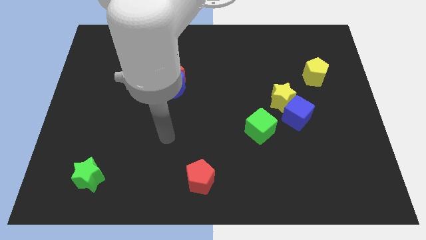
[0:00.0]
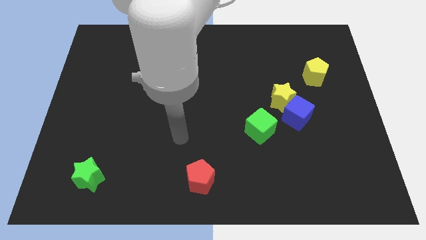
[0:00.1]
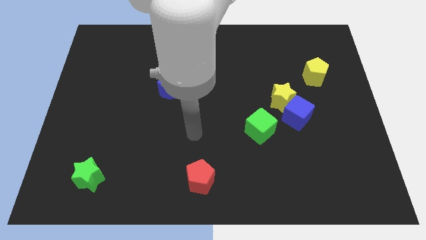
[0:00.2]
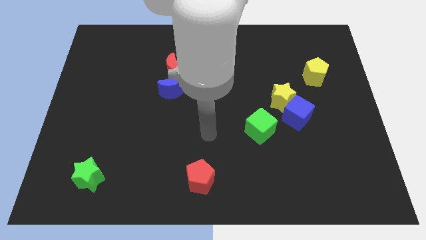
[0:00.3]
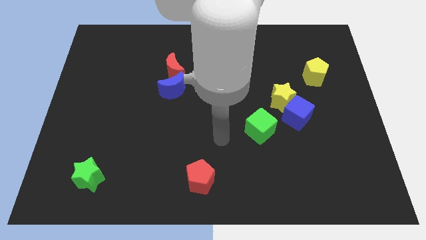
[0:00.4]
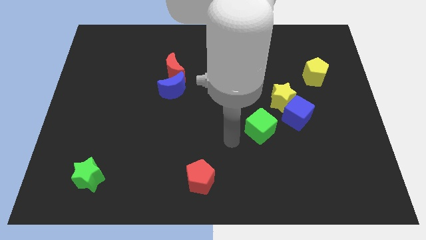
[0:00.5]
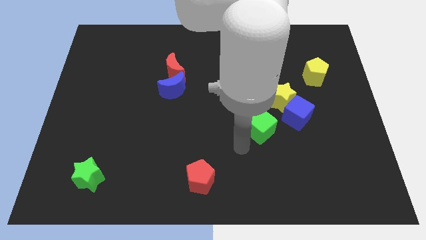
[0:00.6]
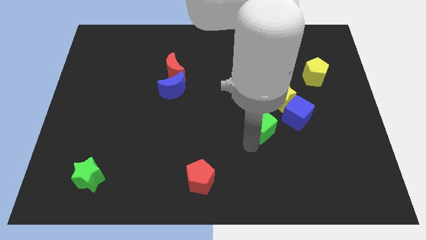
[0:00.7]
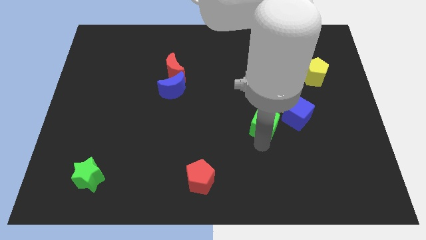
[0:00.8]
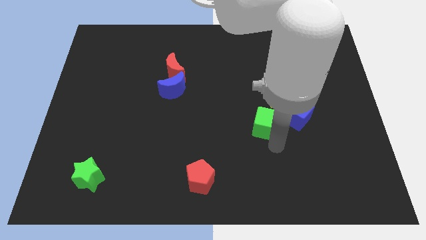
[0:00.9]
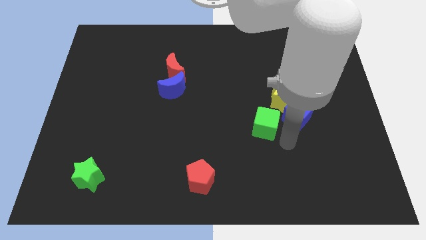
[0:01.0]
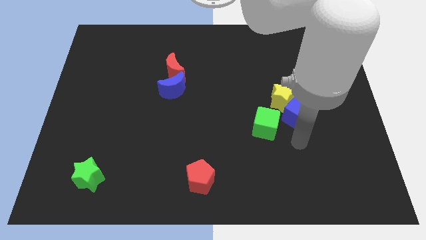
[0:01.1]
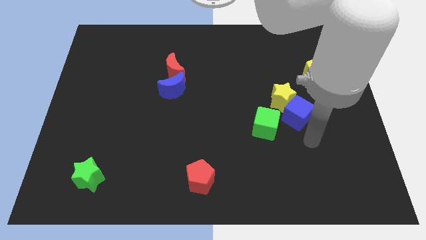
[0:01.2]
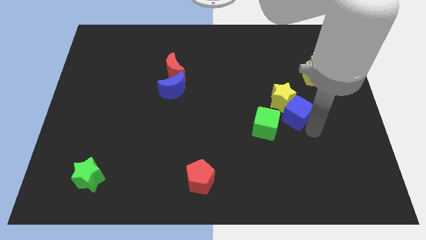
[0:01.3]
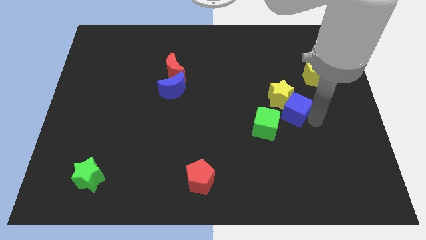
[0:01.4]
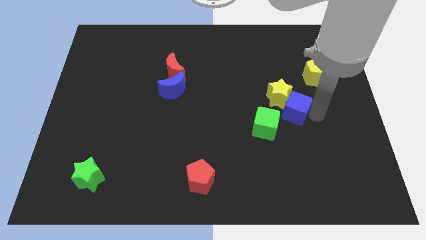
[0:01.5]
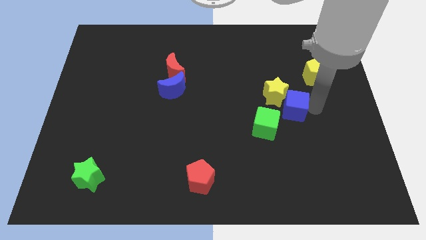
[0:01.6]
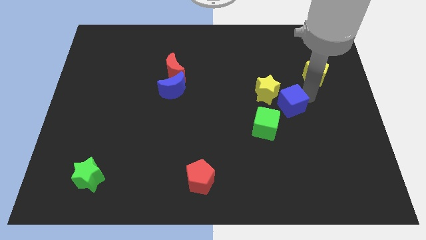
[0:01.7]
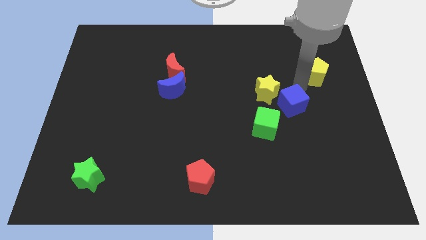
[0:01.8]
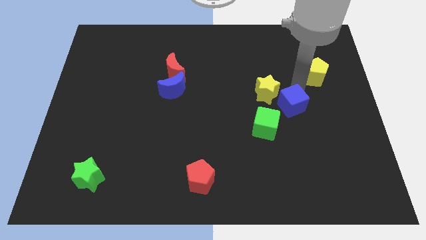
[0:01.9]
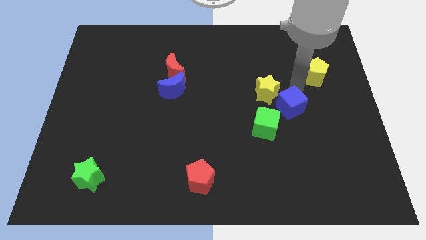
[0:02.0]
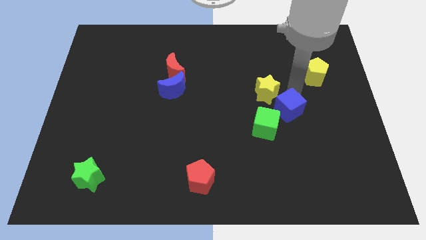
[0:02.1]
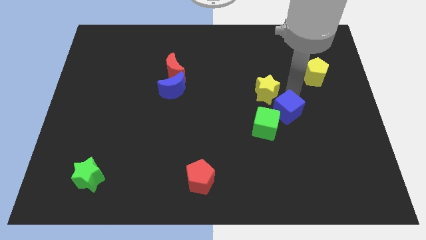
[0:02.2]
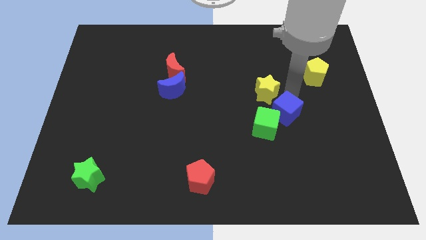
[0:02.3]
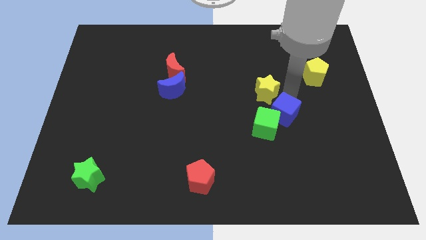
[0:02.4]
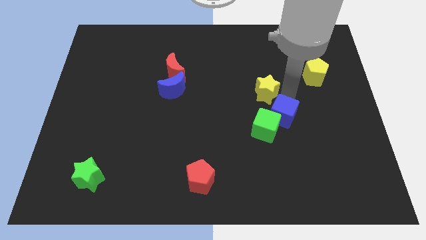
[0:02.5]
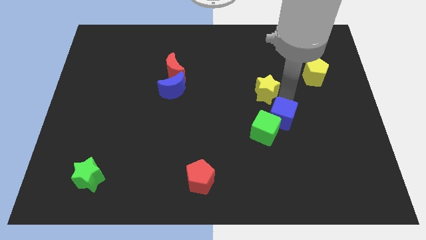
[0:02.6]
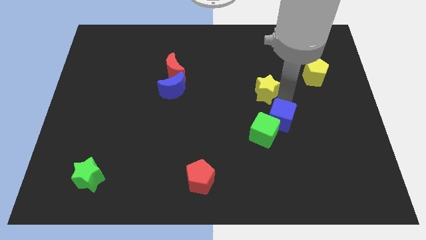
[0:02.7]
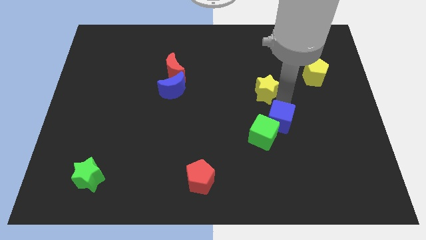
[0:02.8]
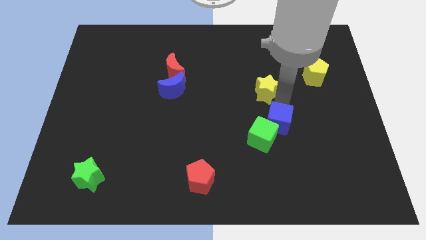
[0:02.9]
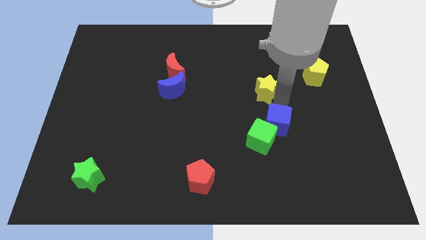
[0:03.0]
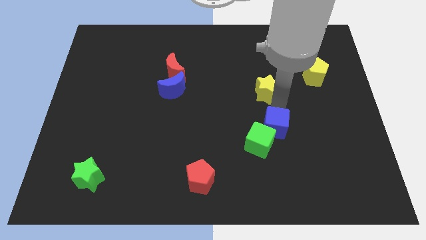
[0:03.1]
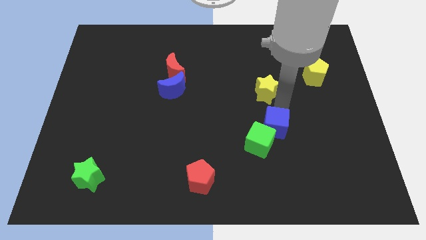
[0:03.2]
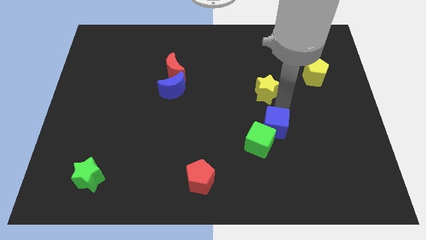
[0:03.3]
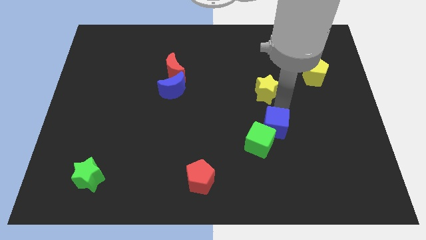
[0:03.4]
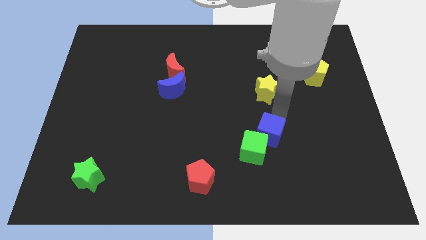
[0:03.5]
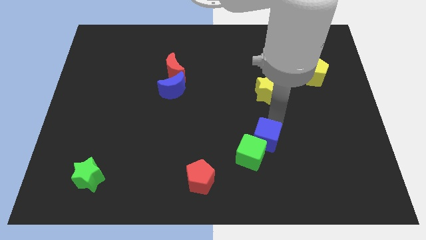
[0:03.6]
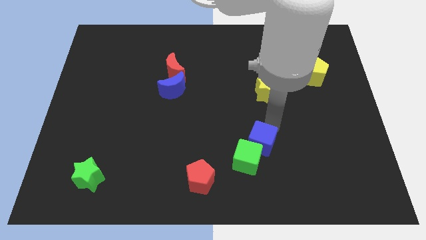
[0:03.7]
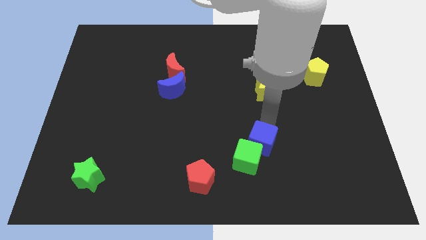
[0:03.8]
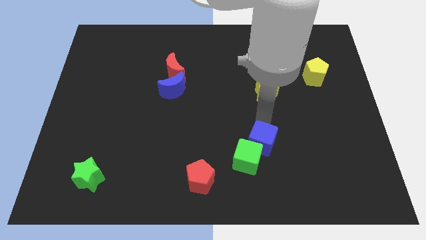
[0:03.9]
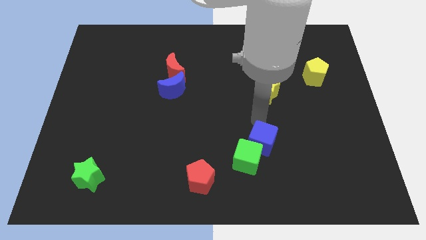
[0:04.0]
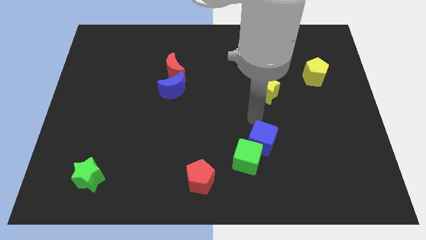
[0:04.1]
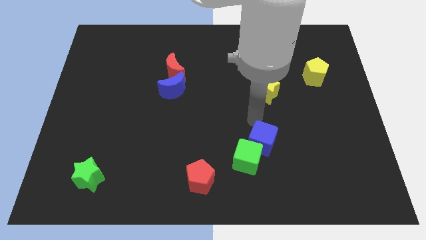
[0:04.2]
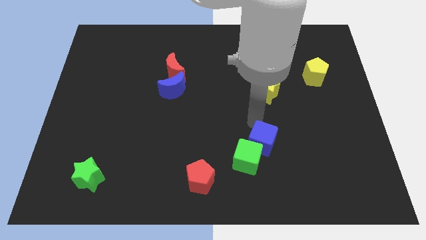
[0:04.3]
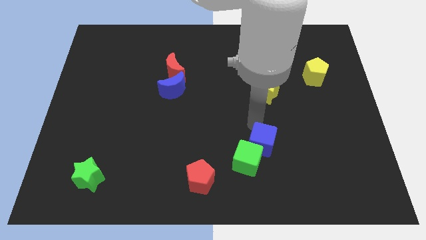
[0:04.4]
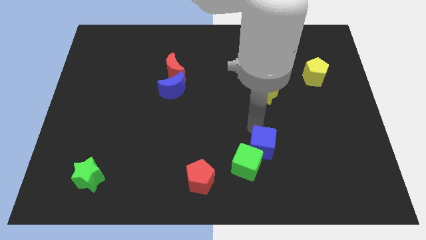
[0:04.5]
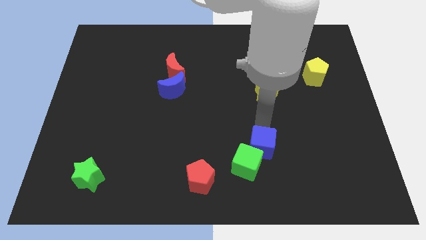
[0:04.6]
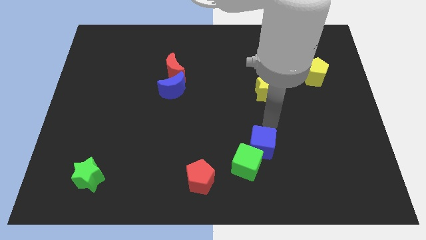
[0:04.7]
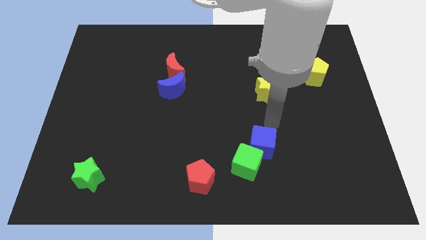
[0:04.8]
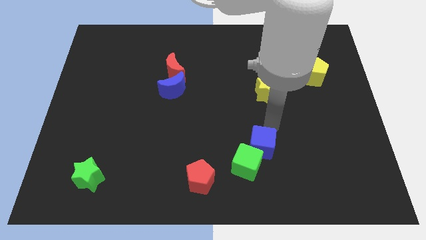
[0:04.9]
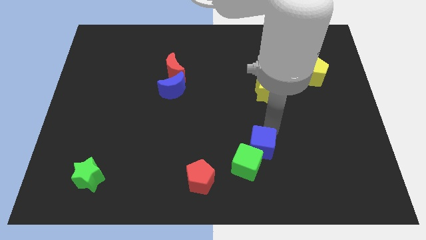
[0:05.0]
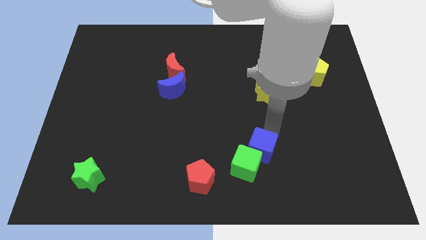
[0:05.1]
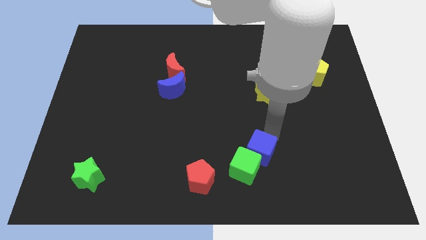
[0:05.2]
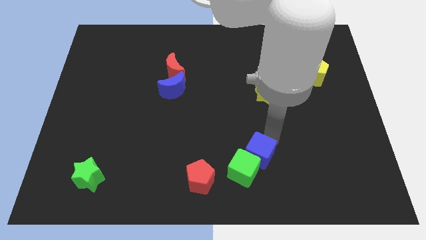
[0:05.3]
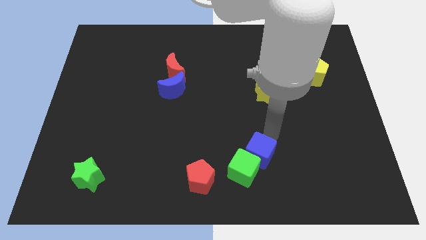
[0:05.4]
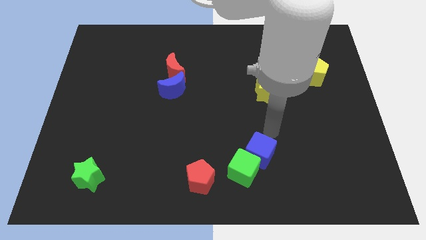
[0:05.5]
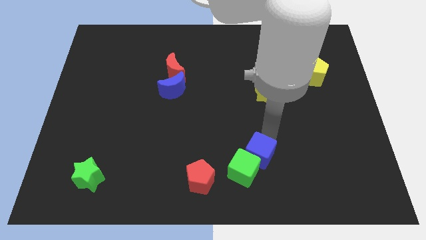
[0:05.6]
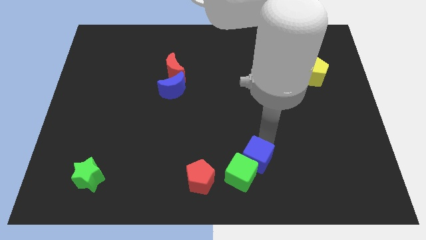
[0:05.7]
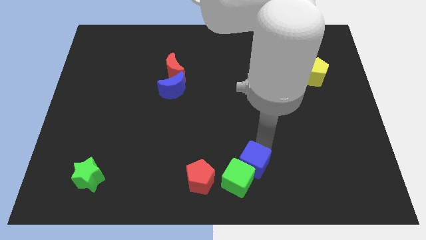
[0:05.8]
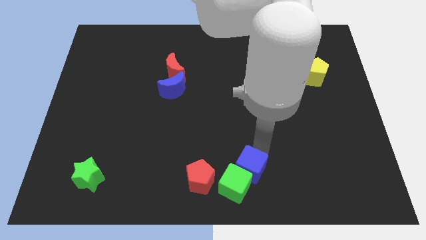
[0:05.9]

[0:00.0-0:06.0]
push the blue cube to the bottom side
